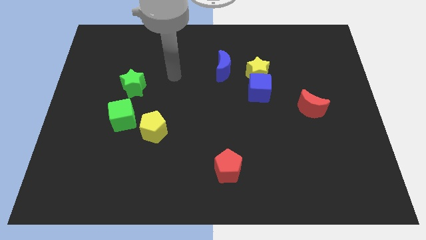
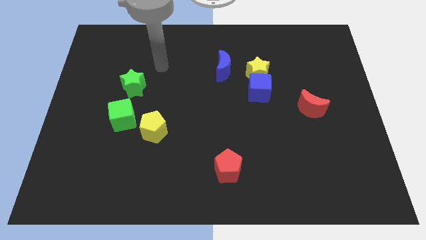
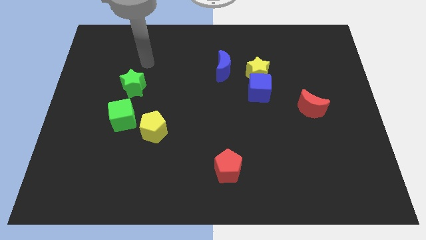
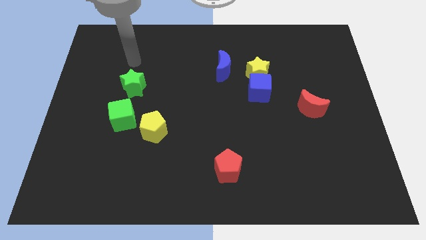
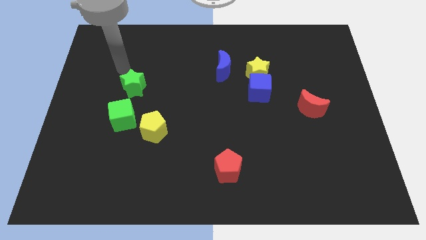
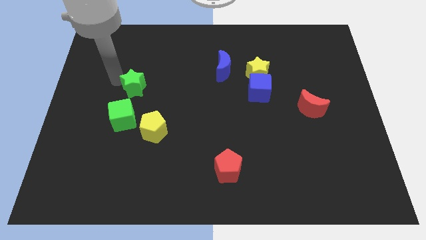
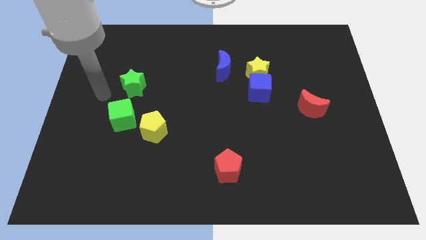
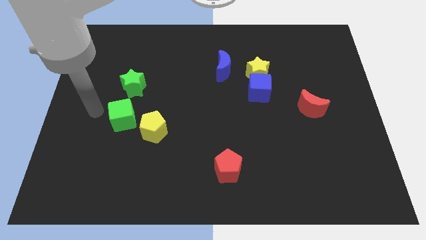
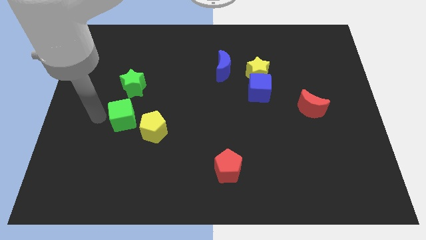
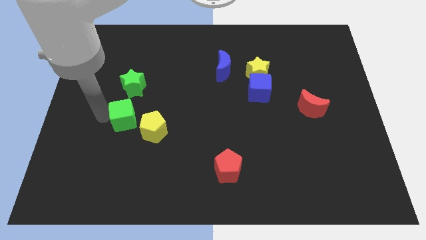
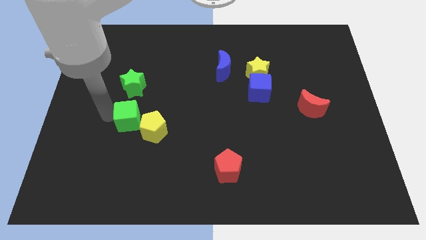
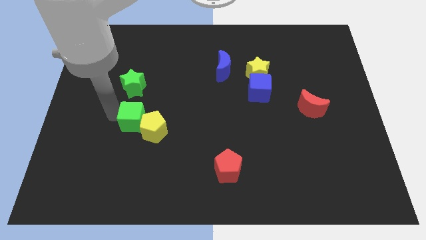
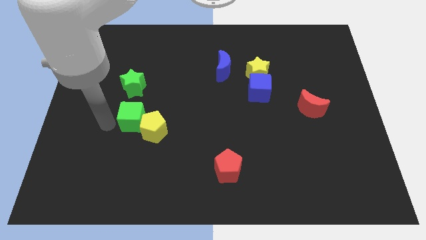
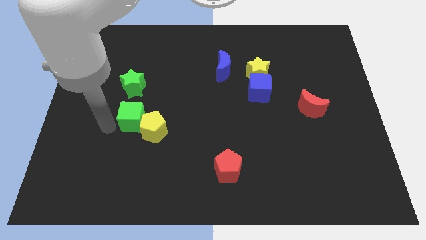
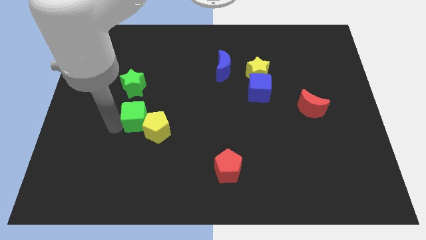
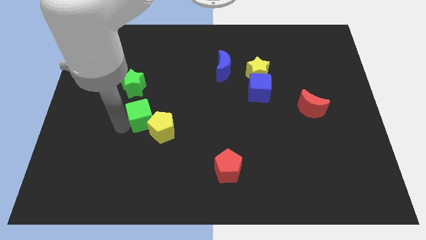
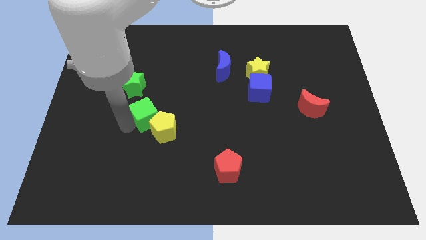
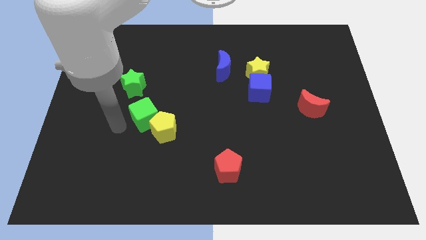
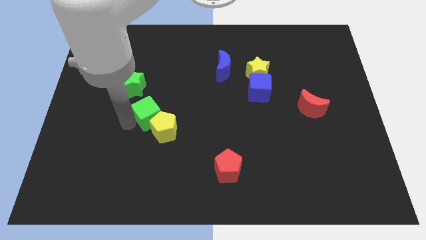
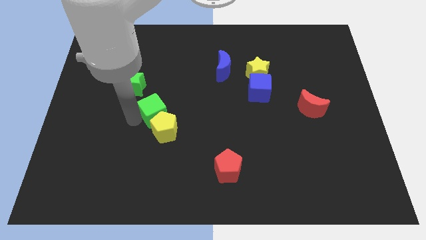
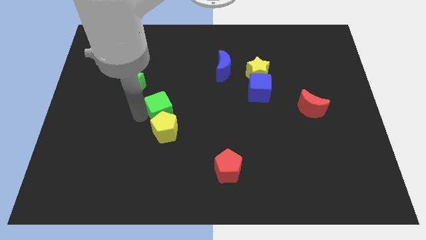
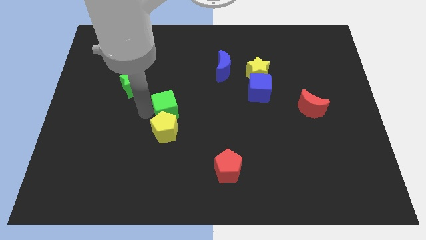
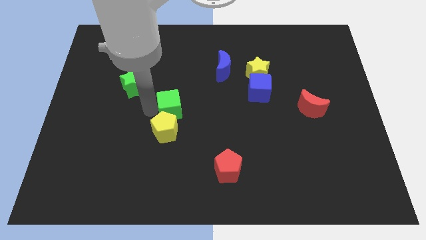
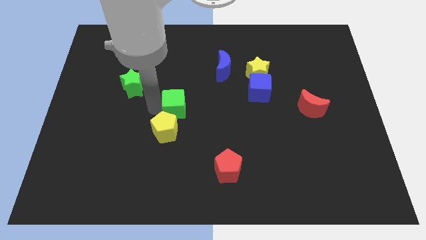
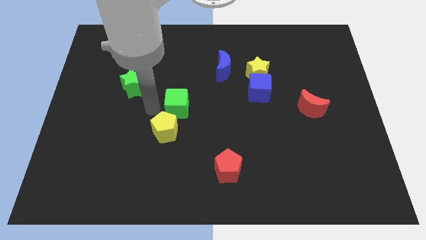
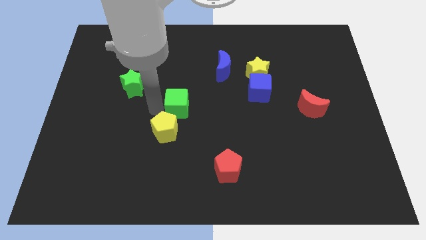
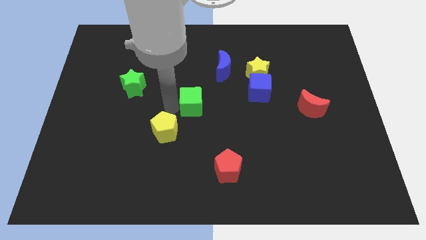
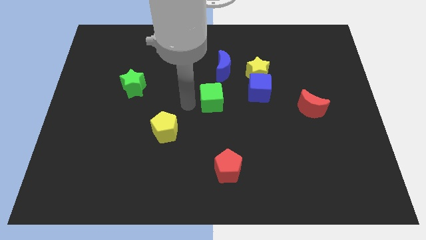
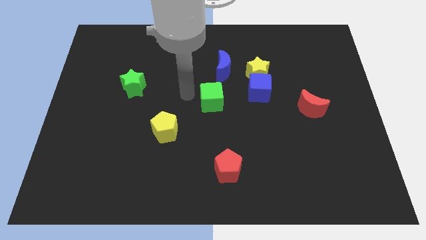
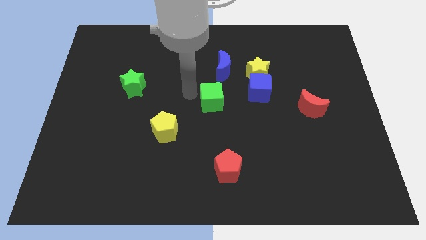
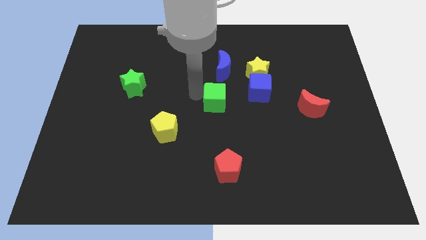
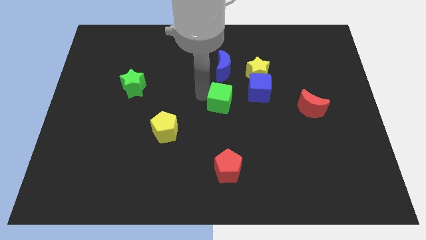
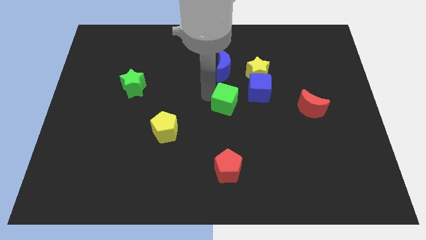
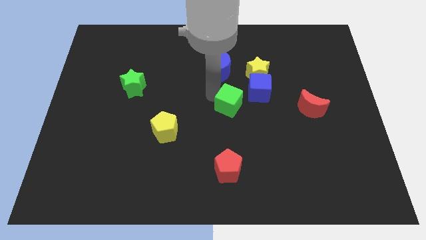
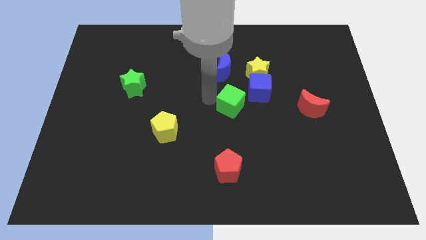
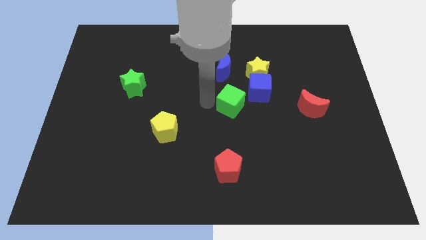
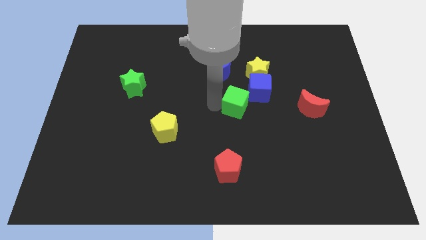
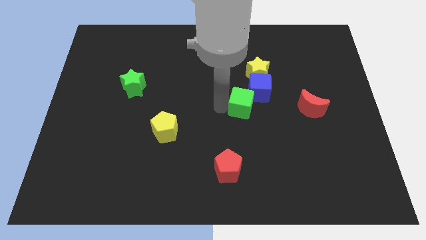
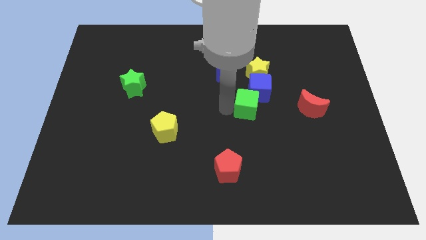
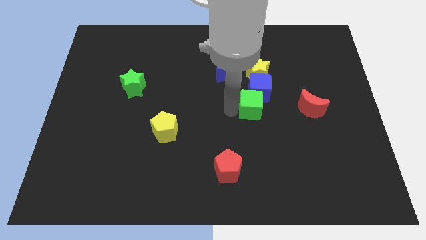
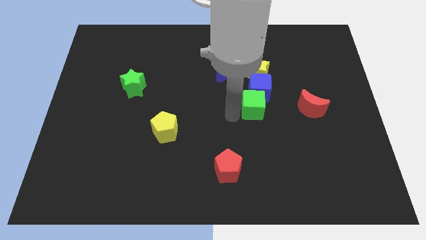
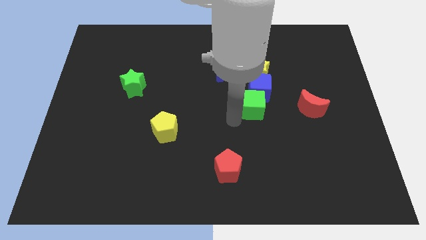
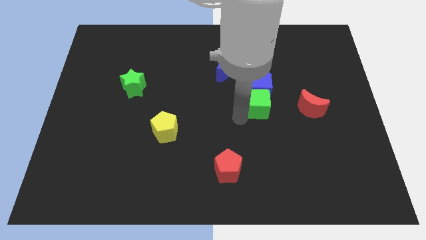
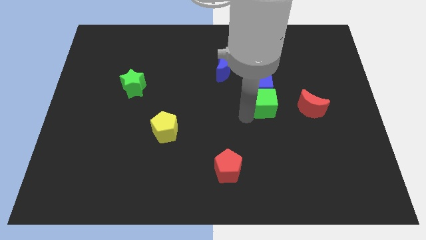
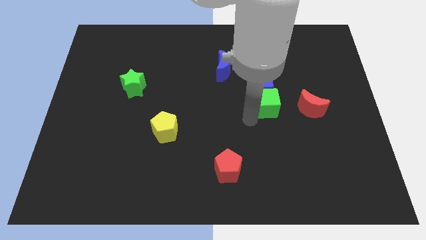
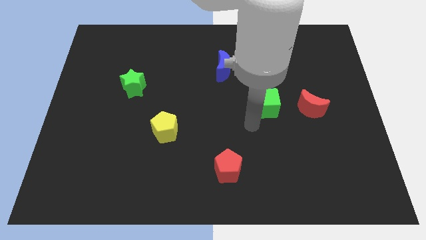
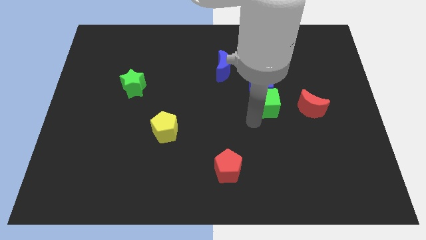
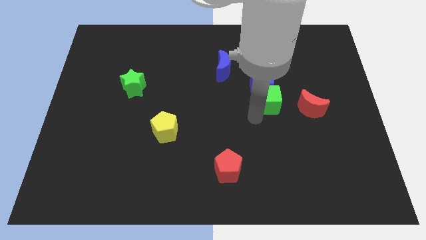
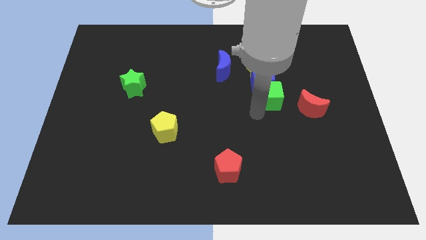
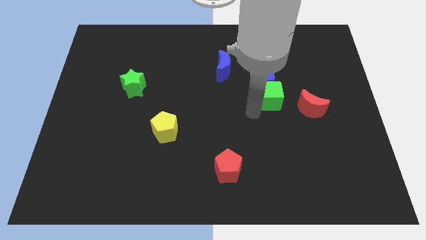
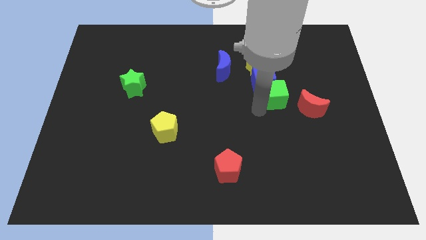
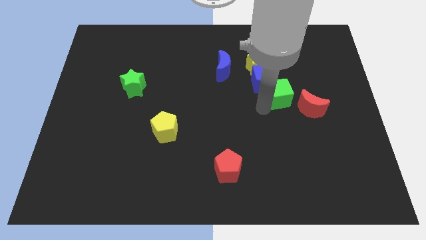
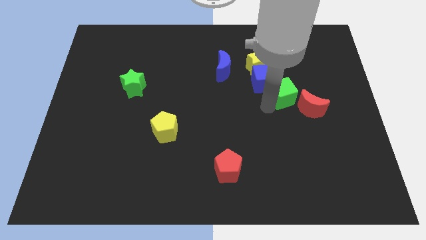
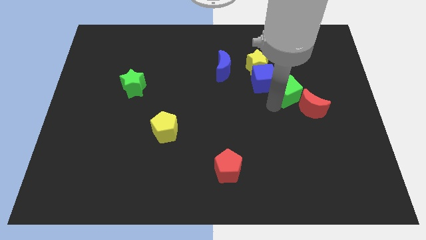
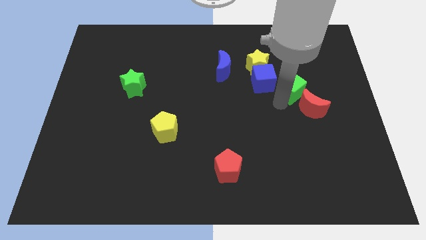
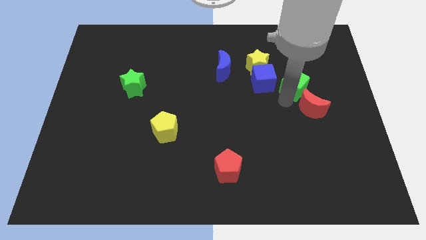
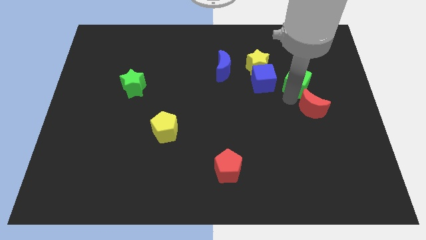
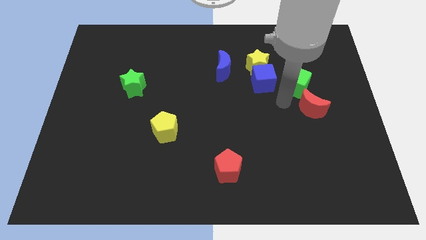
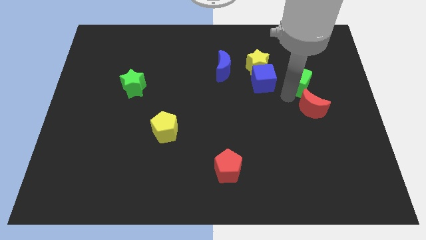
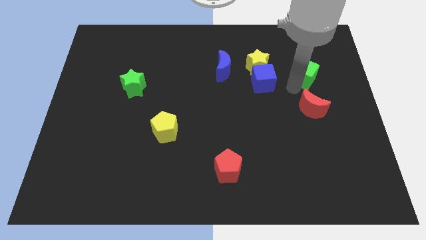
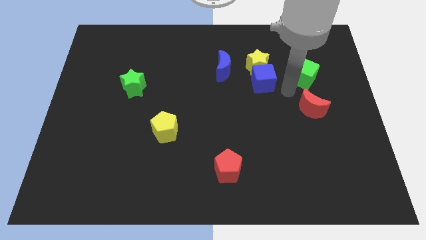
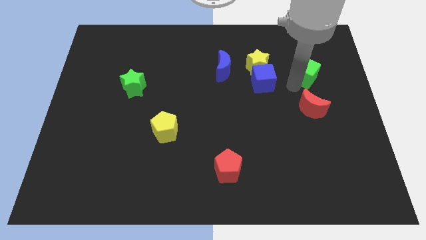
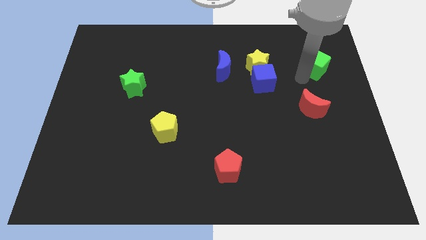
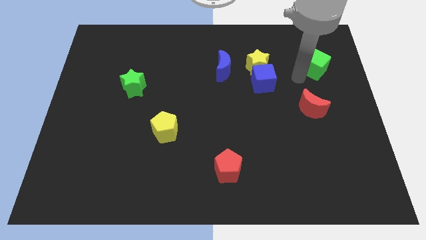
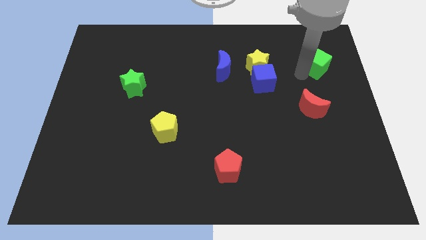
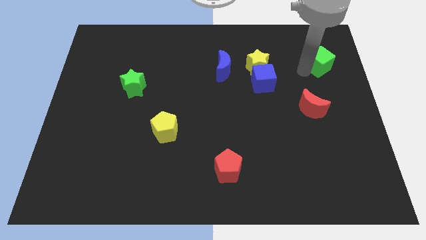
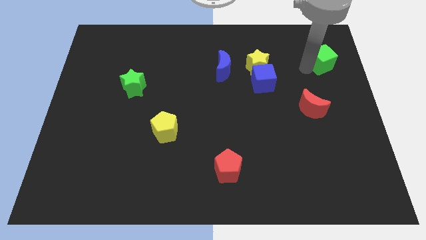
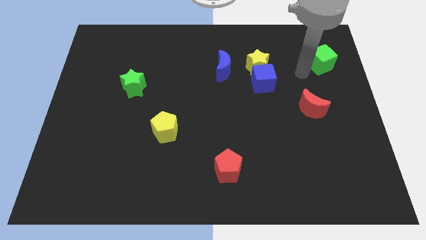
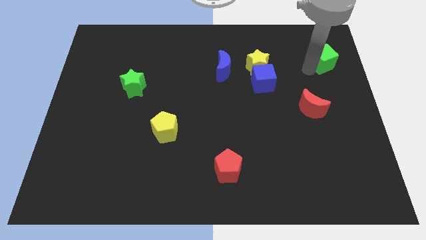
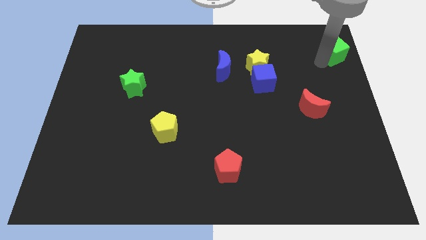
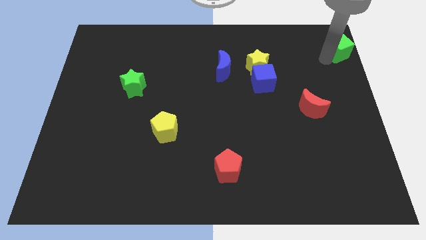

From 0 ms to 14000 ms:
move the green cube to the upper right corner
